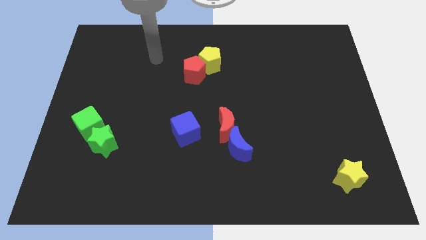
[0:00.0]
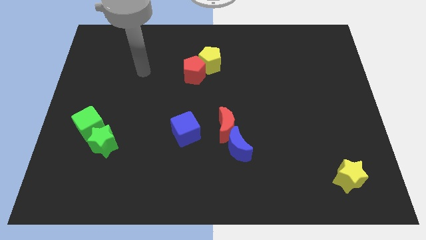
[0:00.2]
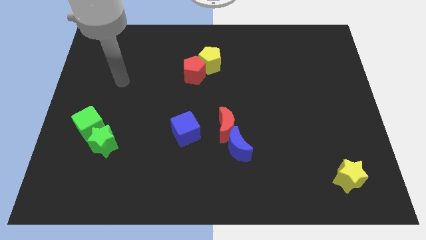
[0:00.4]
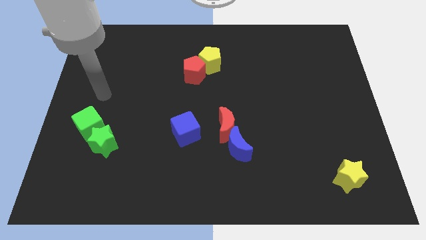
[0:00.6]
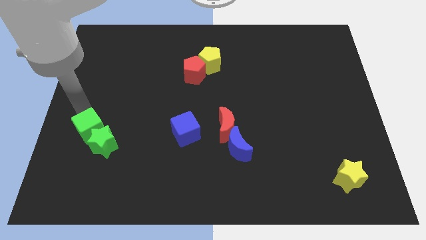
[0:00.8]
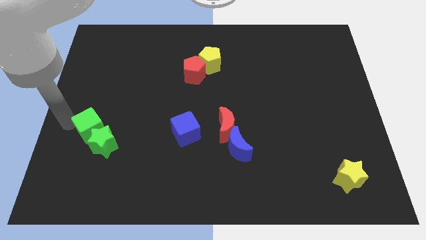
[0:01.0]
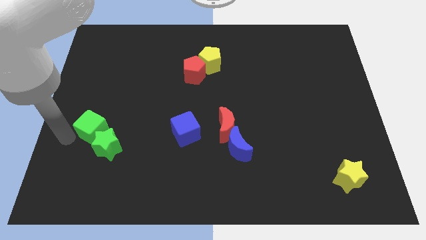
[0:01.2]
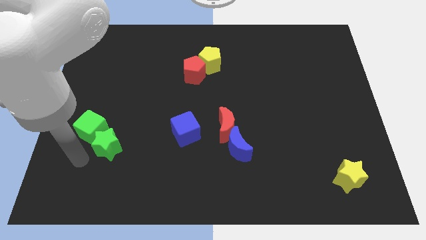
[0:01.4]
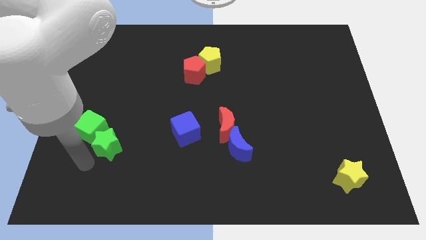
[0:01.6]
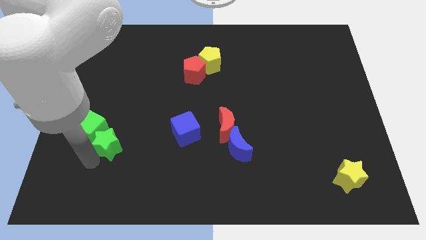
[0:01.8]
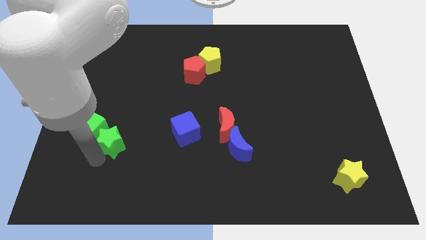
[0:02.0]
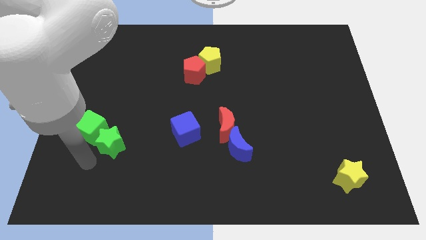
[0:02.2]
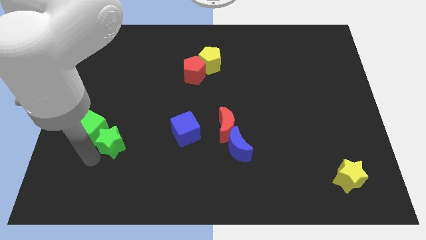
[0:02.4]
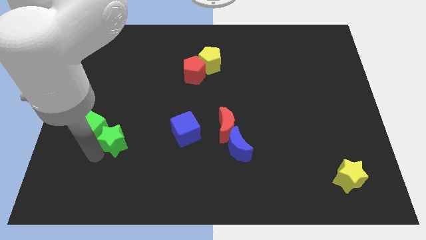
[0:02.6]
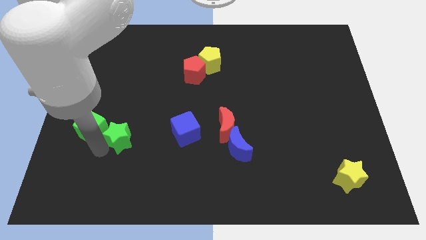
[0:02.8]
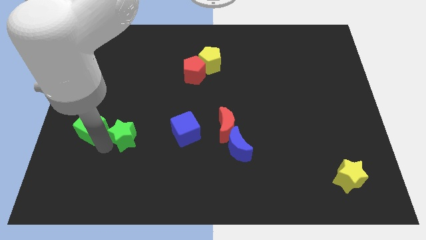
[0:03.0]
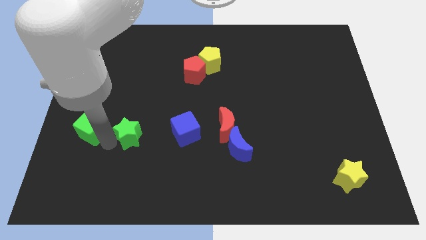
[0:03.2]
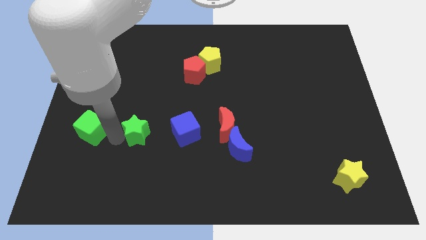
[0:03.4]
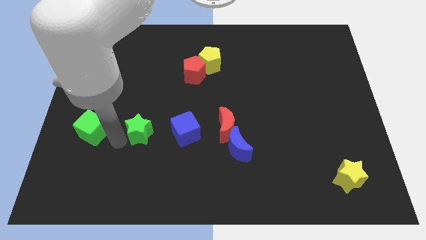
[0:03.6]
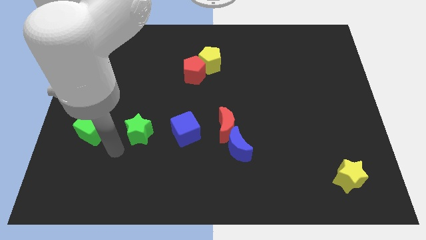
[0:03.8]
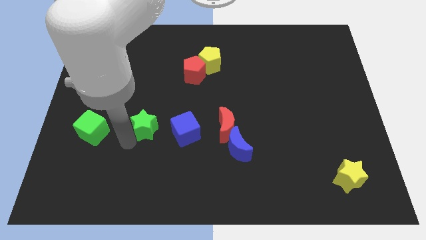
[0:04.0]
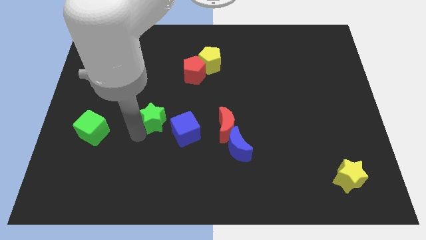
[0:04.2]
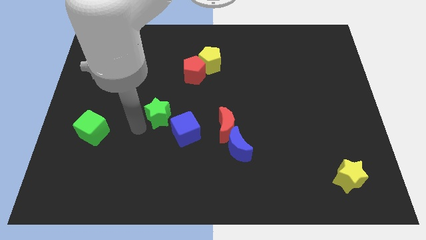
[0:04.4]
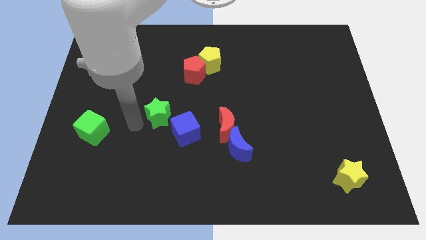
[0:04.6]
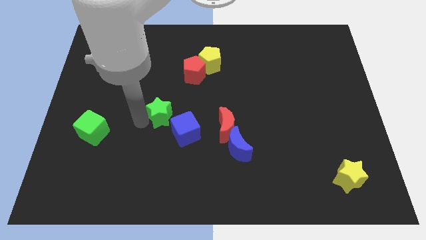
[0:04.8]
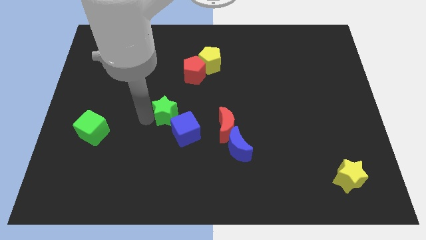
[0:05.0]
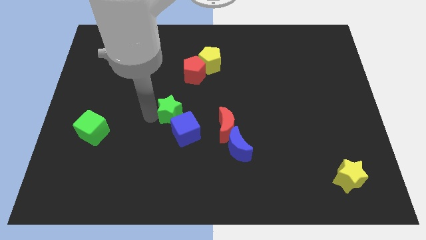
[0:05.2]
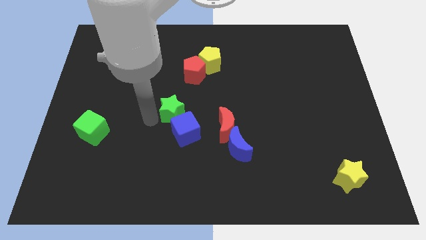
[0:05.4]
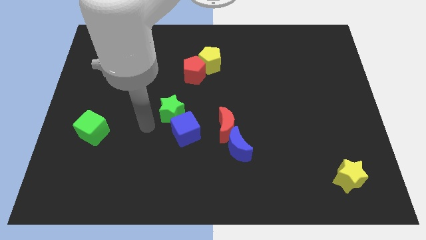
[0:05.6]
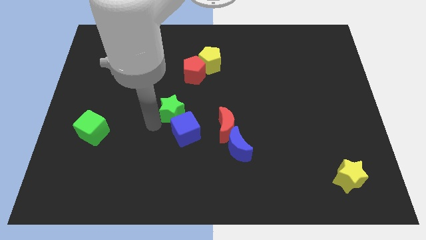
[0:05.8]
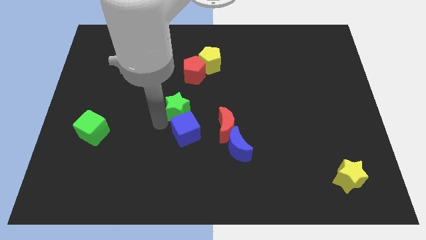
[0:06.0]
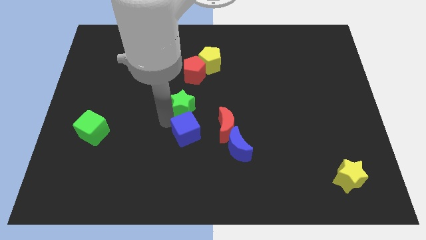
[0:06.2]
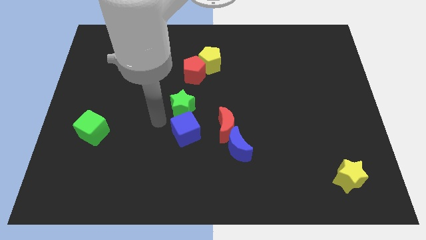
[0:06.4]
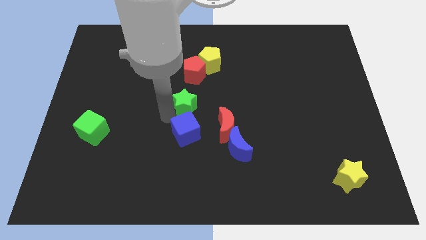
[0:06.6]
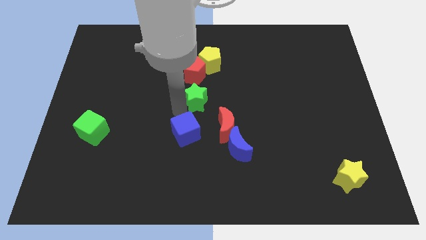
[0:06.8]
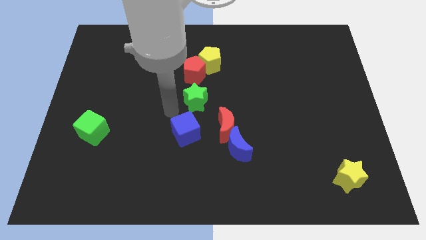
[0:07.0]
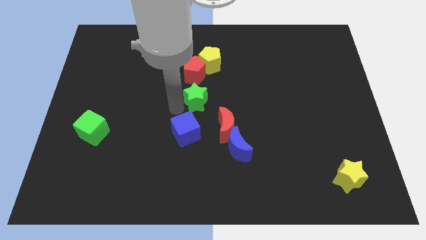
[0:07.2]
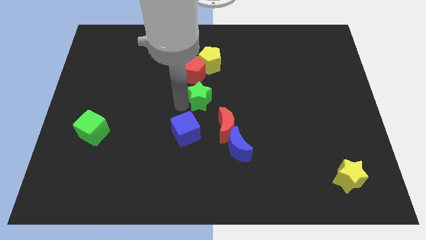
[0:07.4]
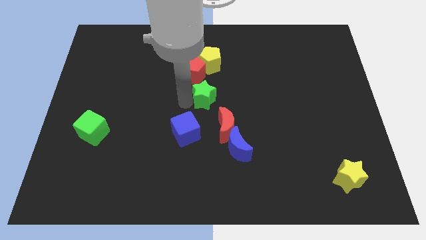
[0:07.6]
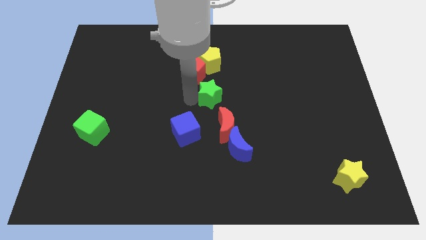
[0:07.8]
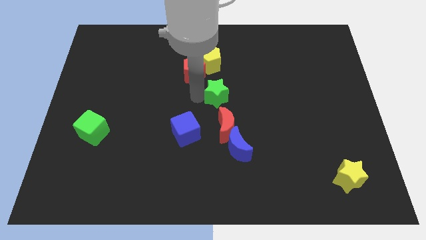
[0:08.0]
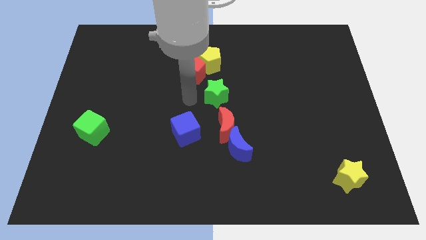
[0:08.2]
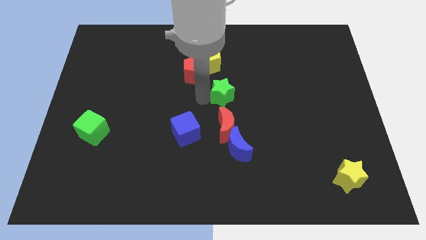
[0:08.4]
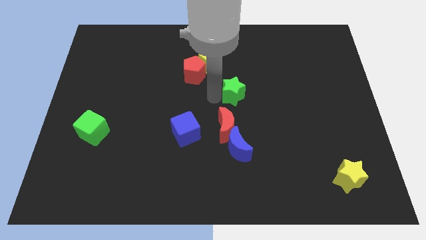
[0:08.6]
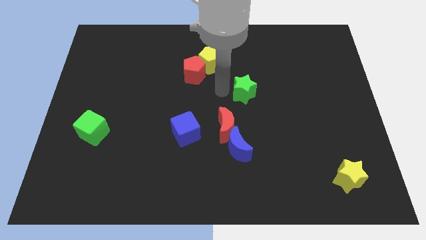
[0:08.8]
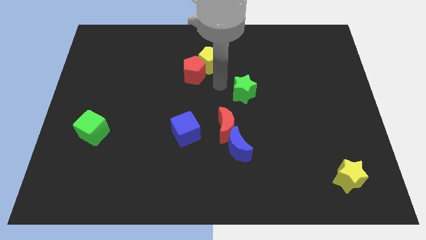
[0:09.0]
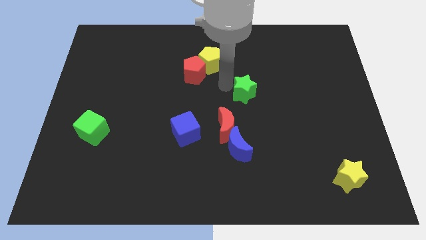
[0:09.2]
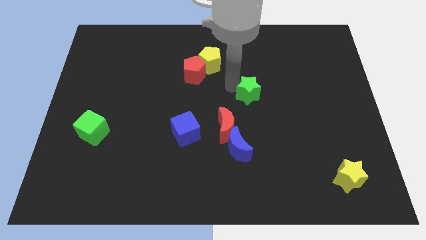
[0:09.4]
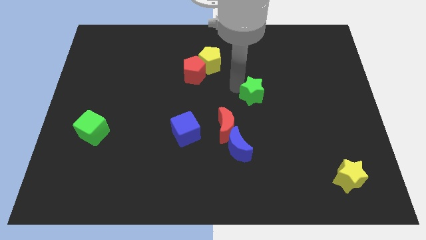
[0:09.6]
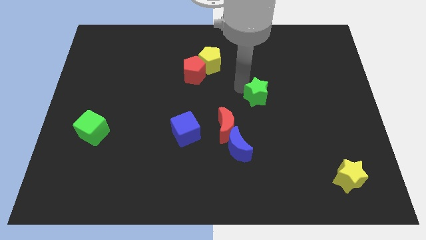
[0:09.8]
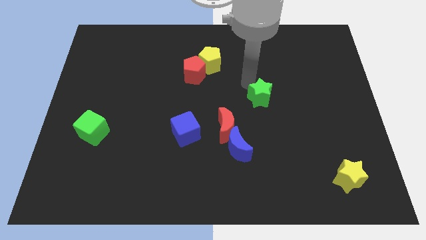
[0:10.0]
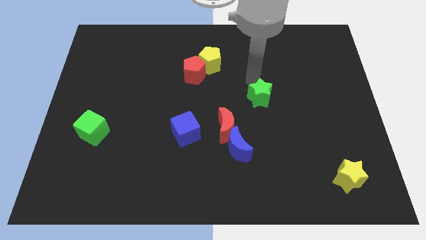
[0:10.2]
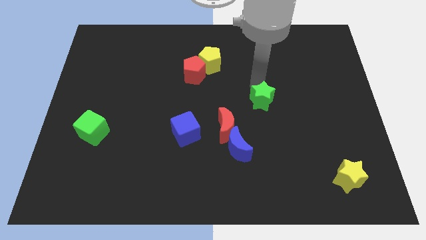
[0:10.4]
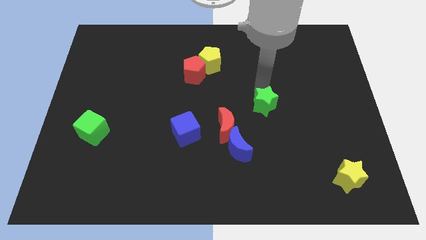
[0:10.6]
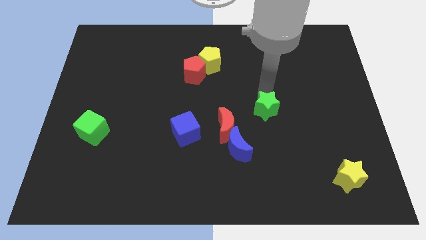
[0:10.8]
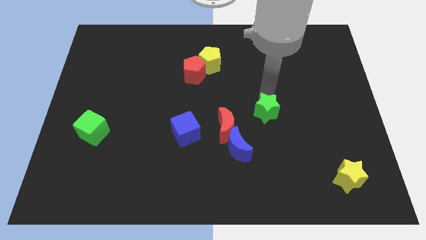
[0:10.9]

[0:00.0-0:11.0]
push the green star just right of the red moon

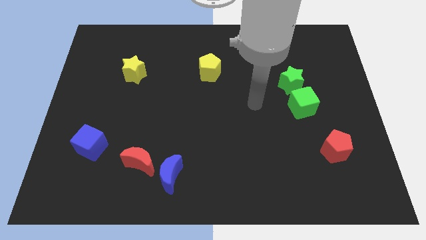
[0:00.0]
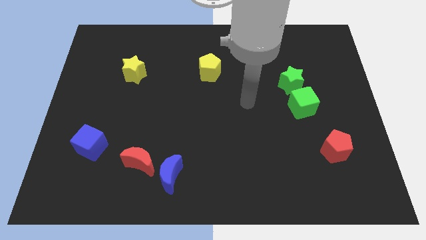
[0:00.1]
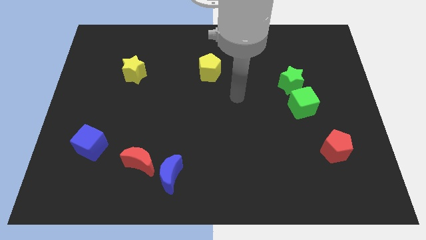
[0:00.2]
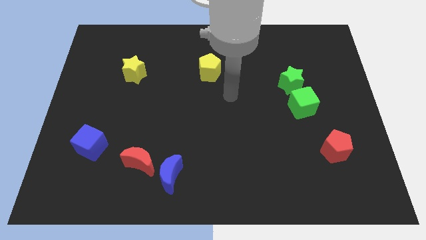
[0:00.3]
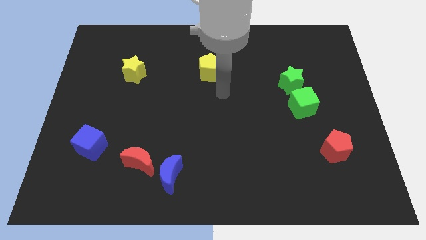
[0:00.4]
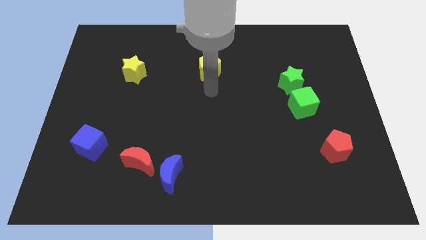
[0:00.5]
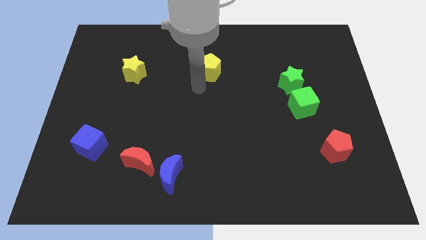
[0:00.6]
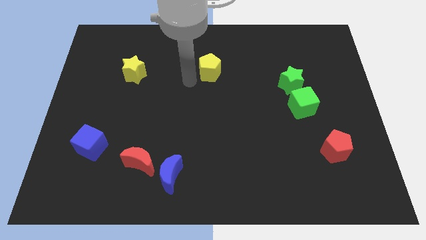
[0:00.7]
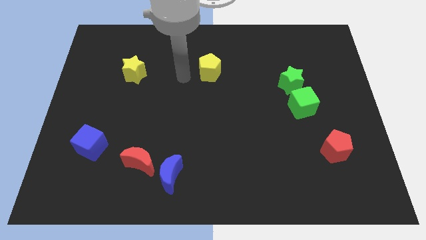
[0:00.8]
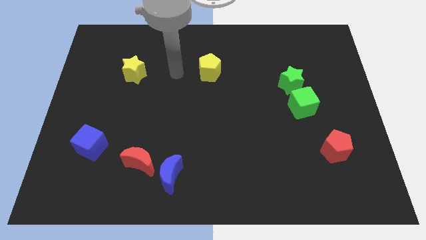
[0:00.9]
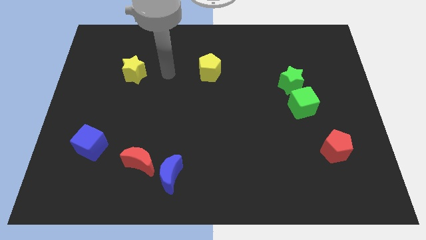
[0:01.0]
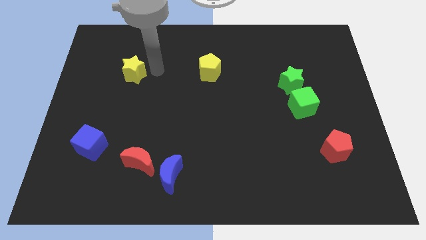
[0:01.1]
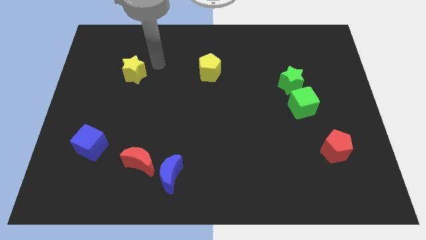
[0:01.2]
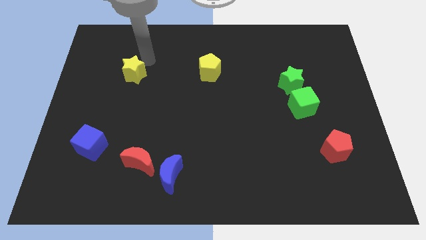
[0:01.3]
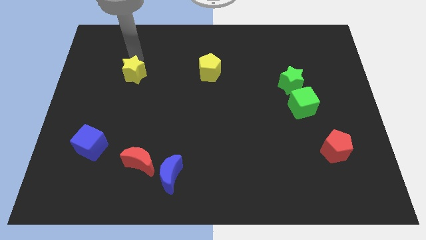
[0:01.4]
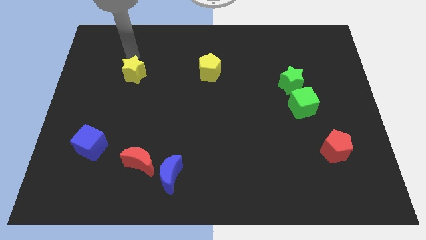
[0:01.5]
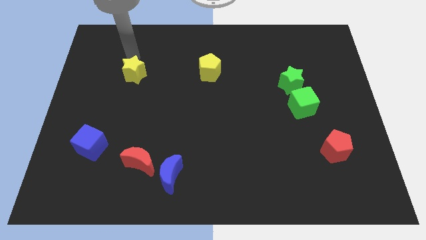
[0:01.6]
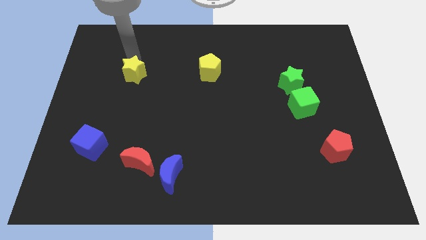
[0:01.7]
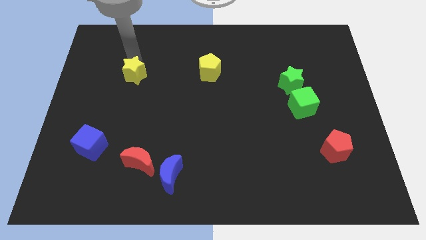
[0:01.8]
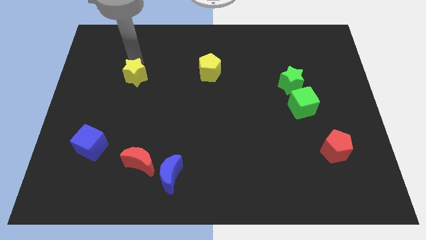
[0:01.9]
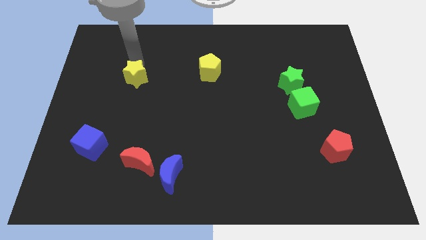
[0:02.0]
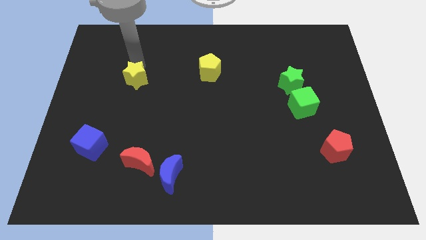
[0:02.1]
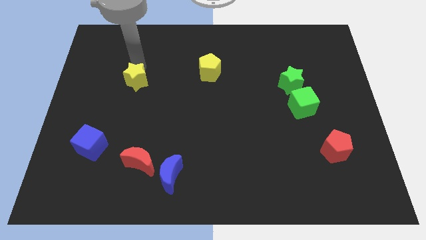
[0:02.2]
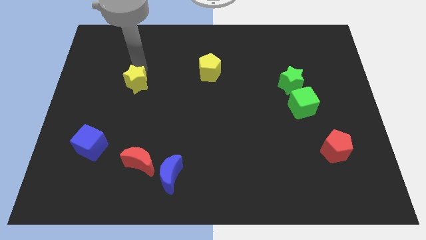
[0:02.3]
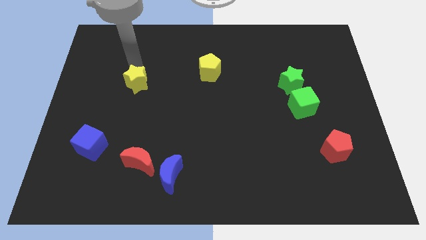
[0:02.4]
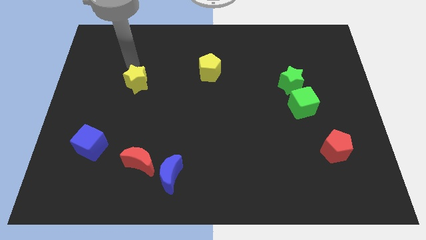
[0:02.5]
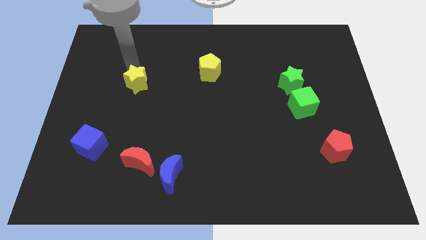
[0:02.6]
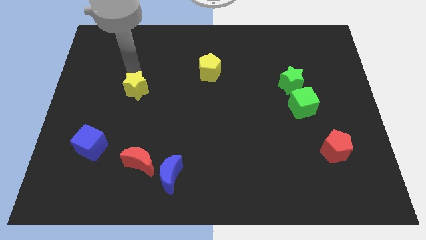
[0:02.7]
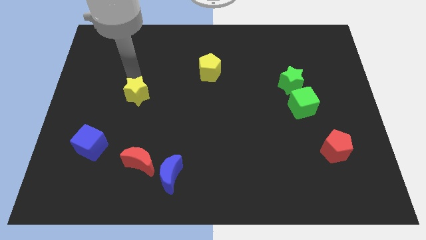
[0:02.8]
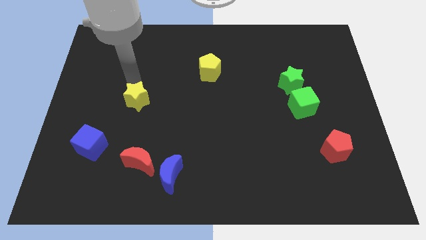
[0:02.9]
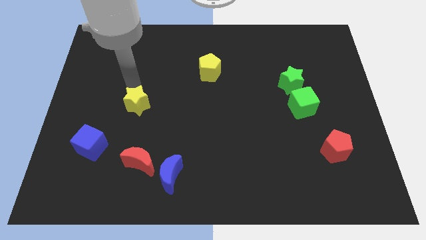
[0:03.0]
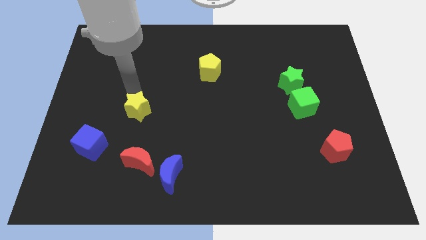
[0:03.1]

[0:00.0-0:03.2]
move the yellow star to the top side of the red moon
